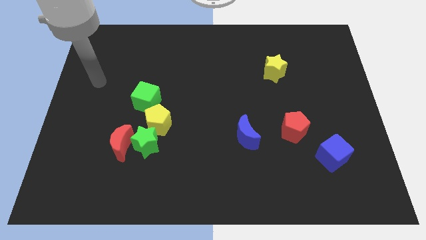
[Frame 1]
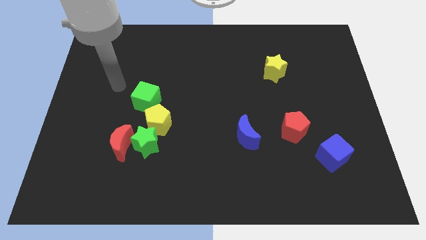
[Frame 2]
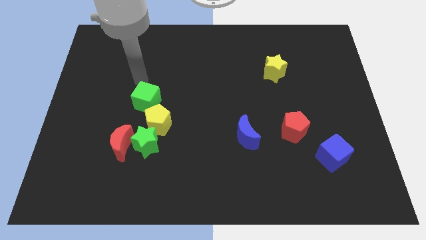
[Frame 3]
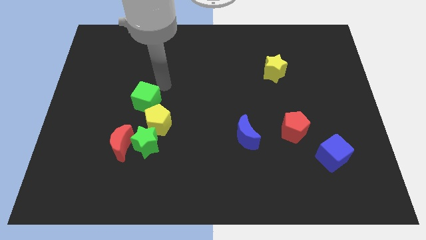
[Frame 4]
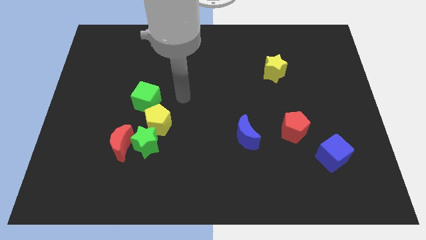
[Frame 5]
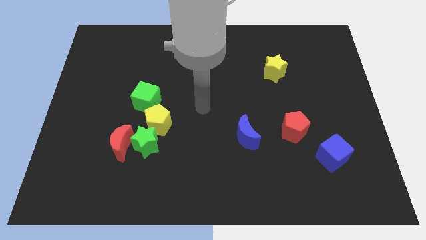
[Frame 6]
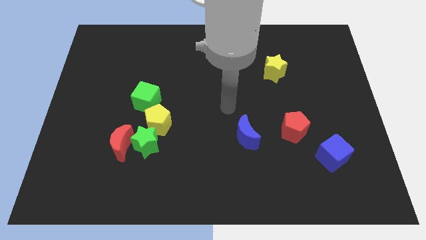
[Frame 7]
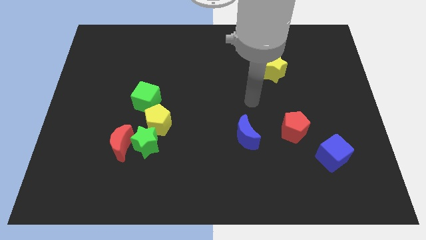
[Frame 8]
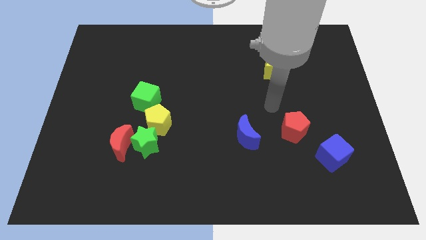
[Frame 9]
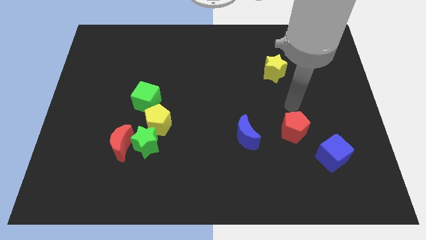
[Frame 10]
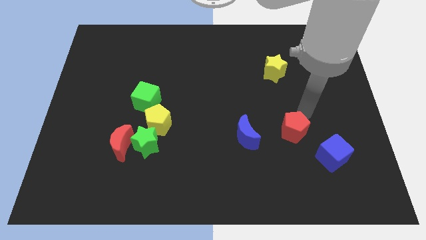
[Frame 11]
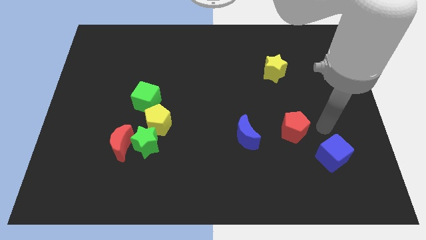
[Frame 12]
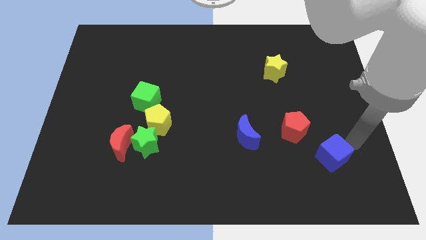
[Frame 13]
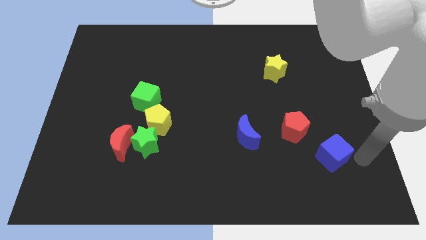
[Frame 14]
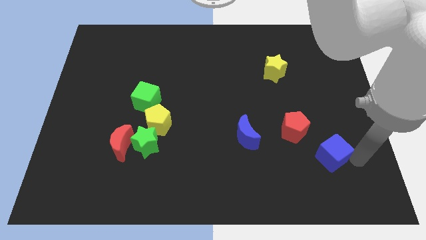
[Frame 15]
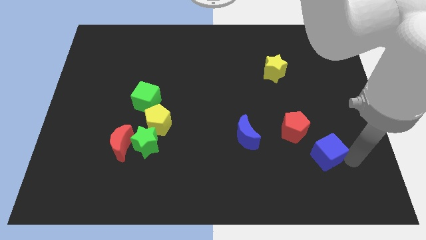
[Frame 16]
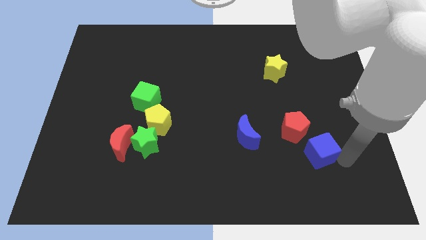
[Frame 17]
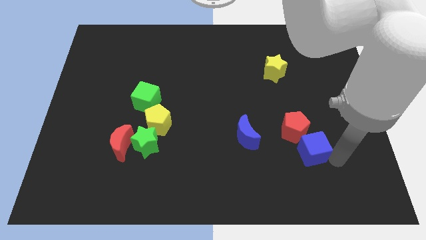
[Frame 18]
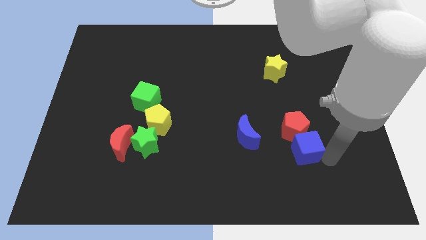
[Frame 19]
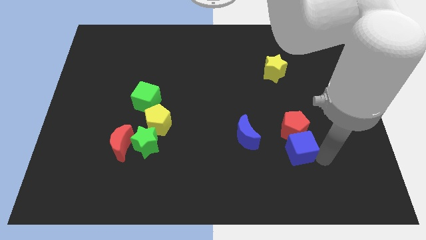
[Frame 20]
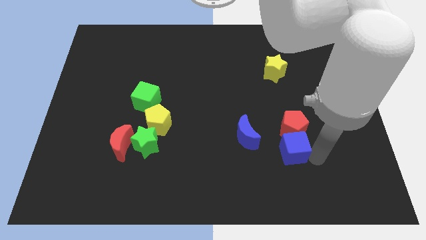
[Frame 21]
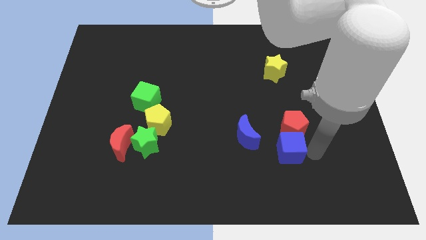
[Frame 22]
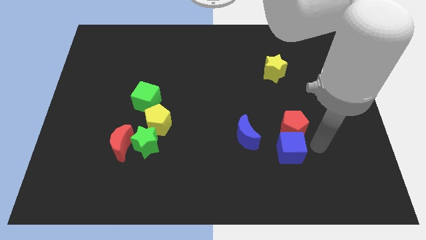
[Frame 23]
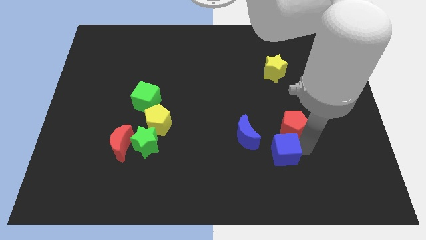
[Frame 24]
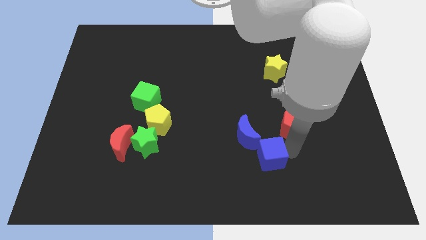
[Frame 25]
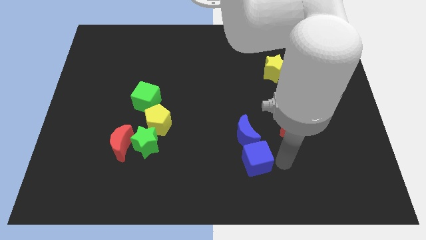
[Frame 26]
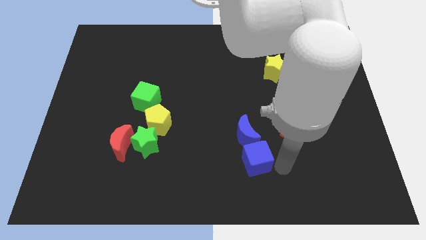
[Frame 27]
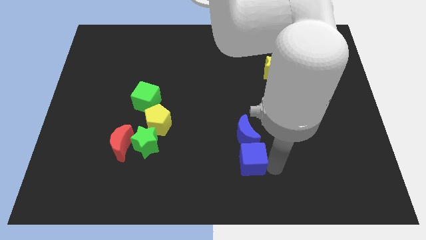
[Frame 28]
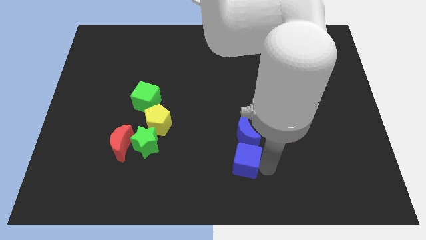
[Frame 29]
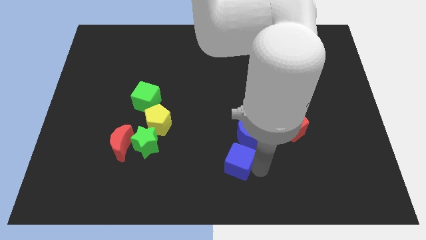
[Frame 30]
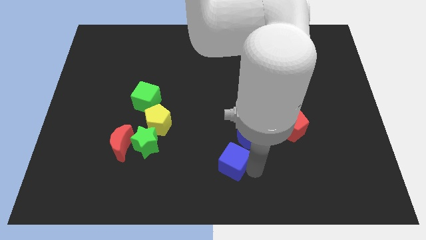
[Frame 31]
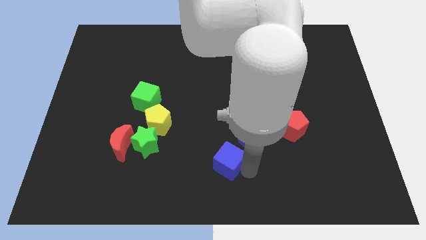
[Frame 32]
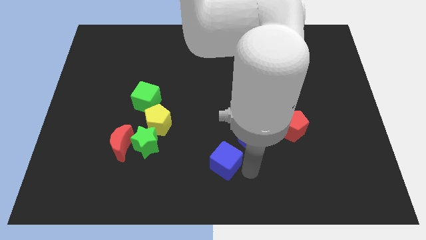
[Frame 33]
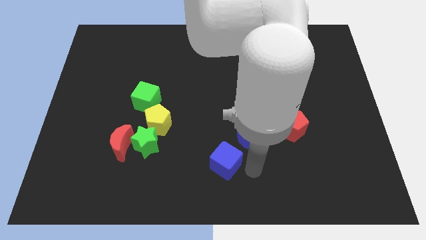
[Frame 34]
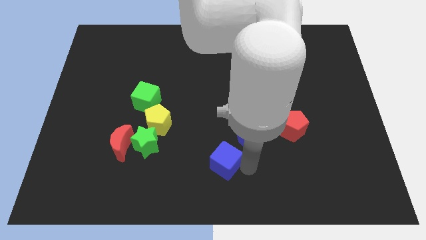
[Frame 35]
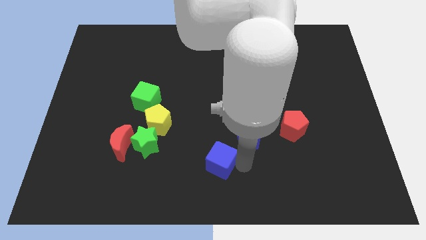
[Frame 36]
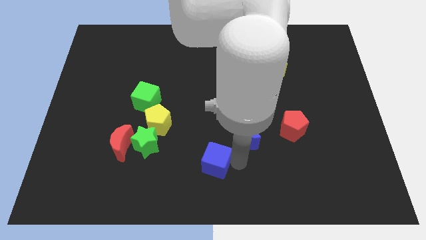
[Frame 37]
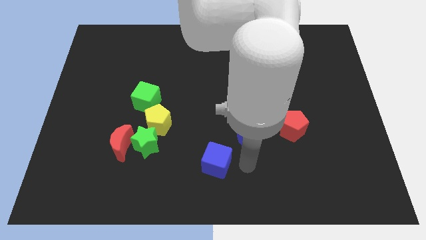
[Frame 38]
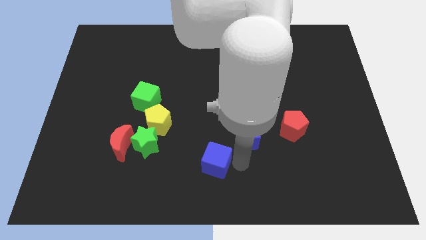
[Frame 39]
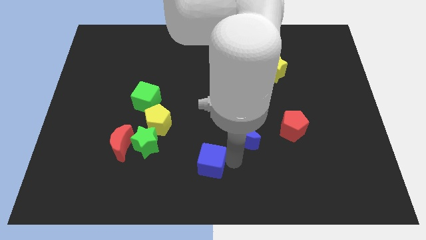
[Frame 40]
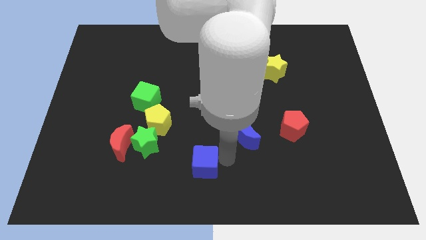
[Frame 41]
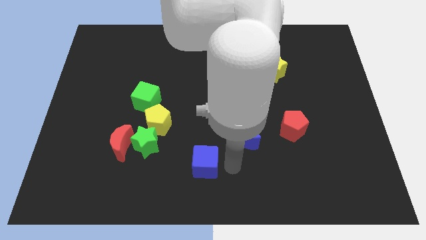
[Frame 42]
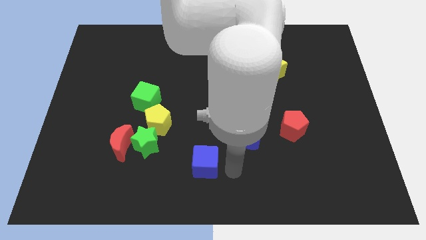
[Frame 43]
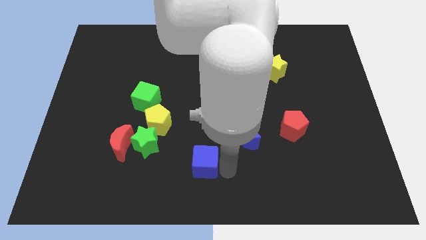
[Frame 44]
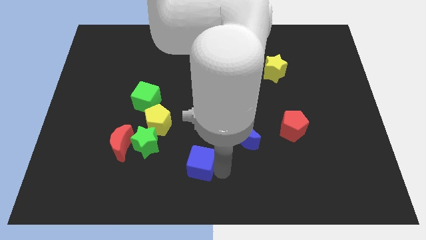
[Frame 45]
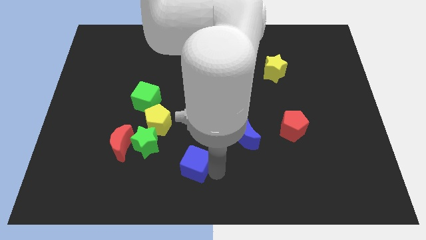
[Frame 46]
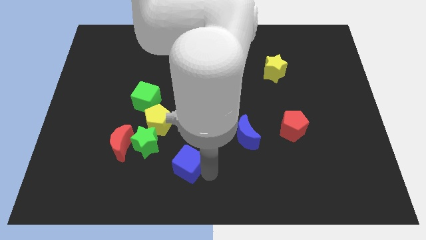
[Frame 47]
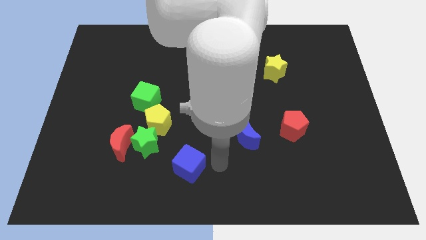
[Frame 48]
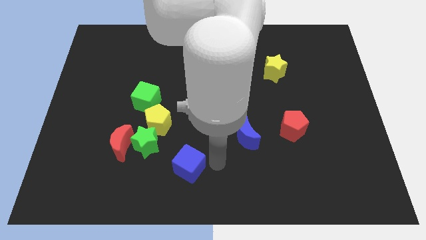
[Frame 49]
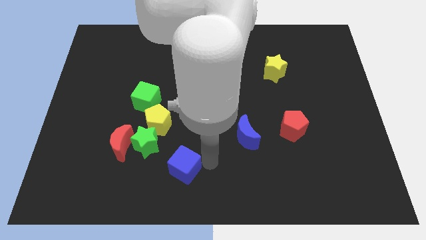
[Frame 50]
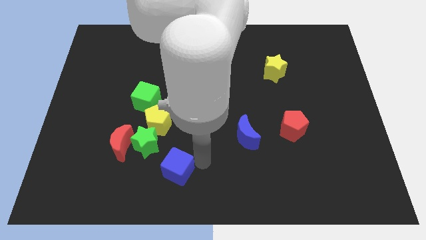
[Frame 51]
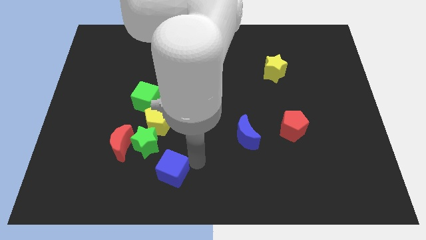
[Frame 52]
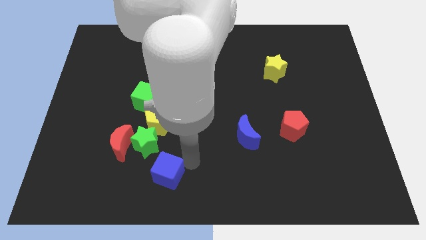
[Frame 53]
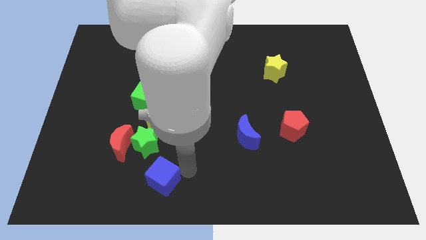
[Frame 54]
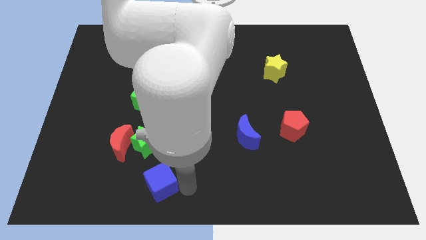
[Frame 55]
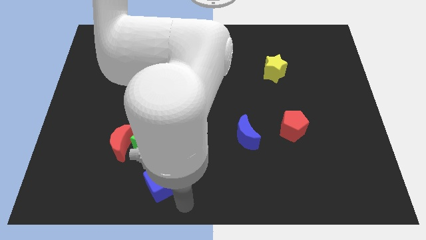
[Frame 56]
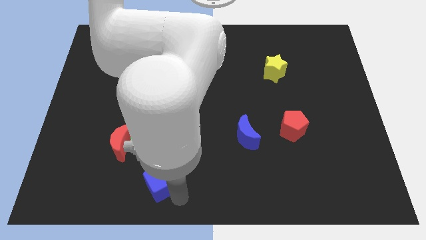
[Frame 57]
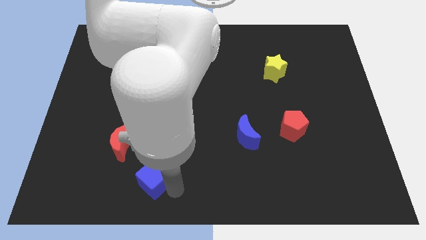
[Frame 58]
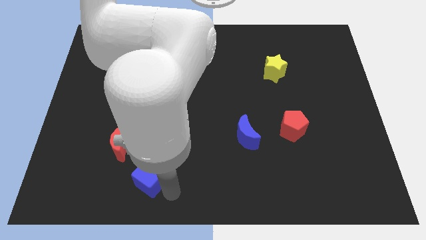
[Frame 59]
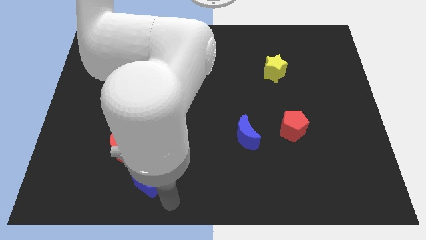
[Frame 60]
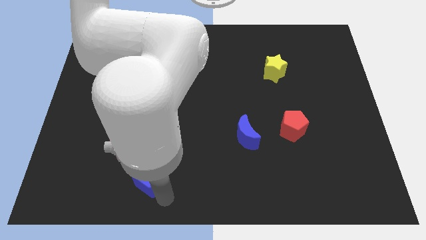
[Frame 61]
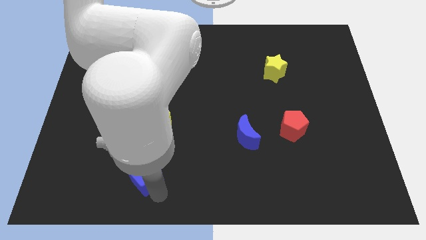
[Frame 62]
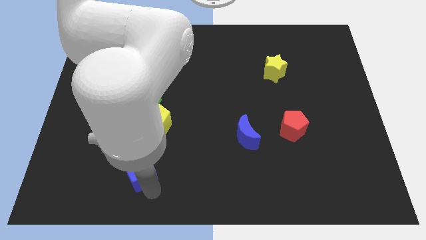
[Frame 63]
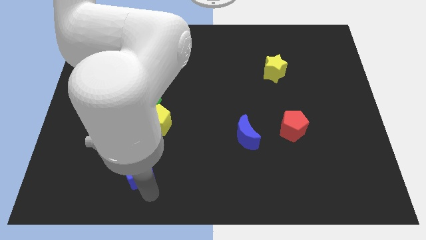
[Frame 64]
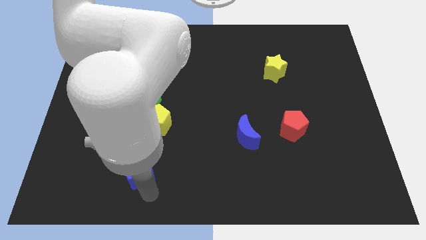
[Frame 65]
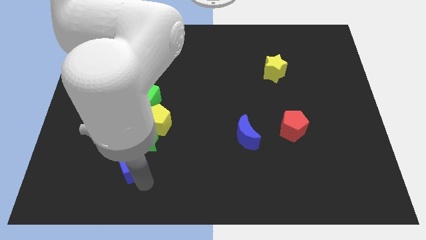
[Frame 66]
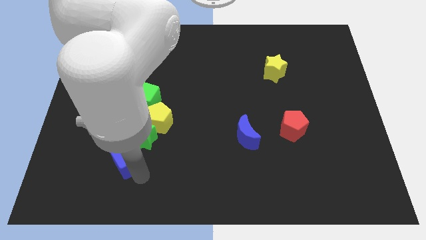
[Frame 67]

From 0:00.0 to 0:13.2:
push the blue cube towards the red moon

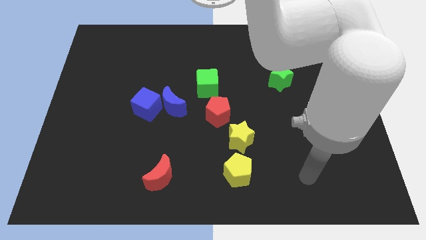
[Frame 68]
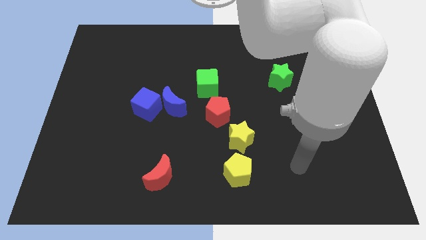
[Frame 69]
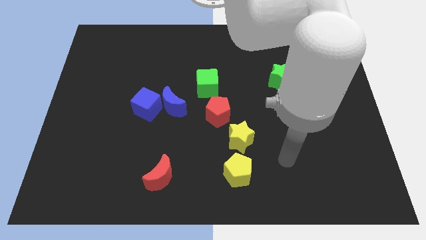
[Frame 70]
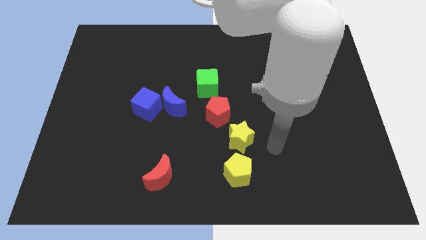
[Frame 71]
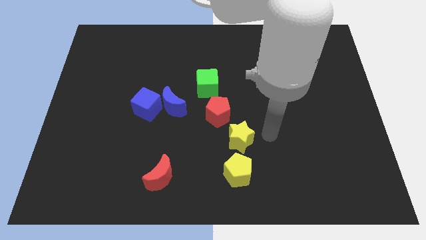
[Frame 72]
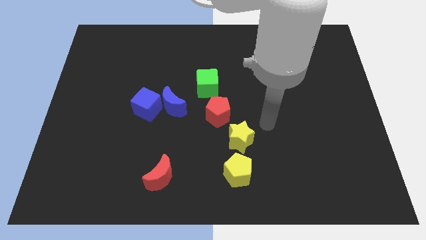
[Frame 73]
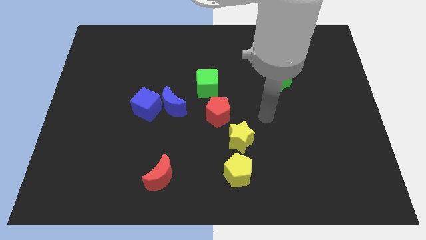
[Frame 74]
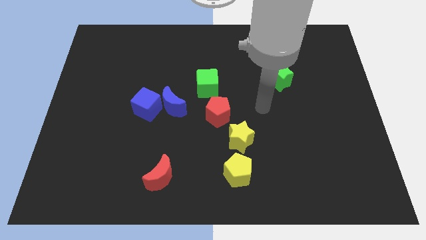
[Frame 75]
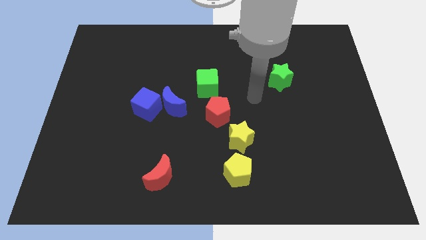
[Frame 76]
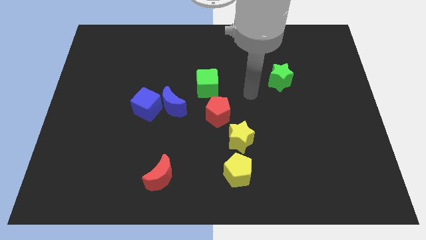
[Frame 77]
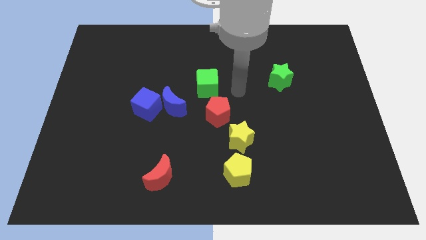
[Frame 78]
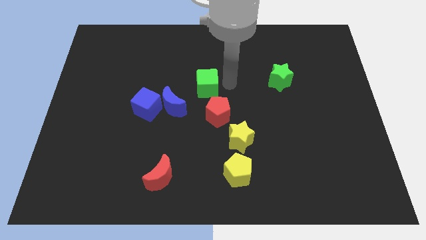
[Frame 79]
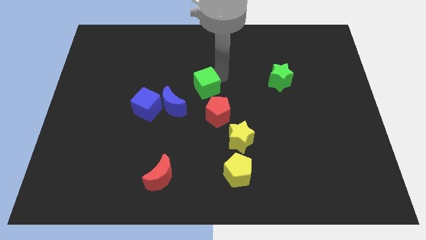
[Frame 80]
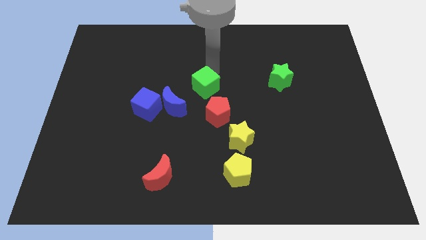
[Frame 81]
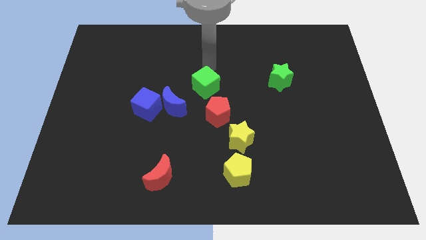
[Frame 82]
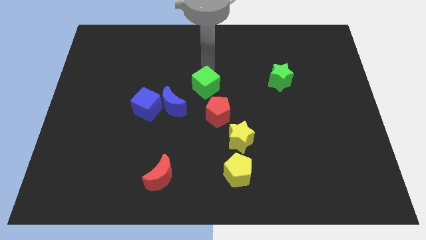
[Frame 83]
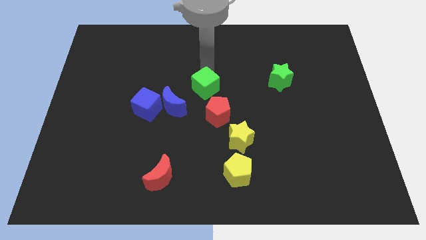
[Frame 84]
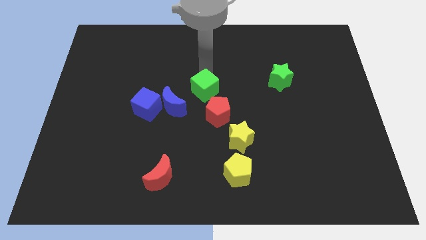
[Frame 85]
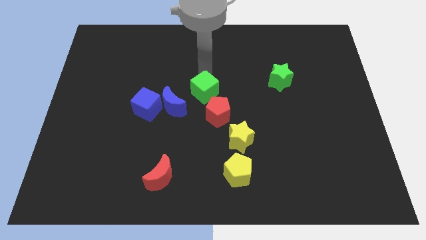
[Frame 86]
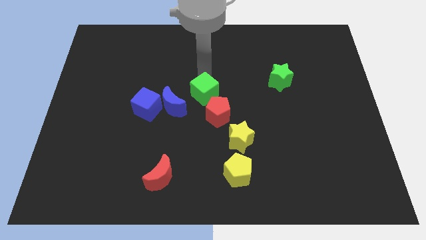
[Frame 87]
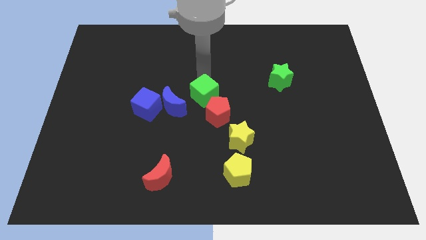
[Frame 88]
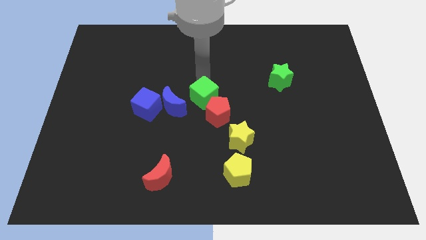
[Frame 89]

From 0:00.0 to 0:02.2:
slide the green cube towards the red pentagon
